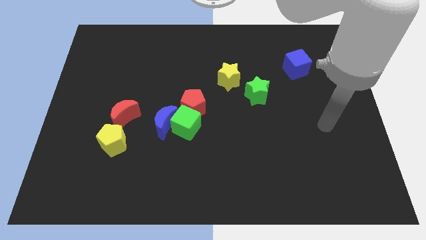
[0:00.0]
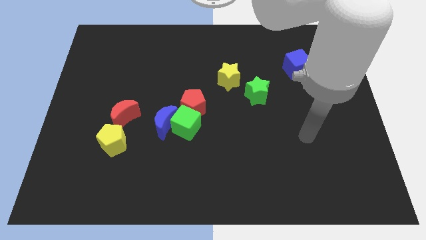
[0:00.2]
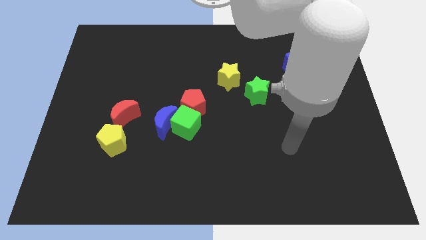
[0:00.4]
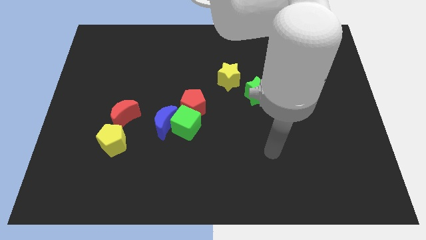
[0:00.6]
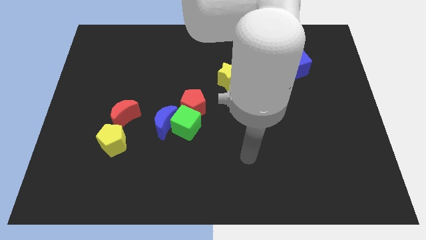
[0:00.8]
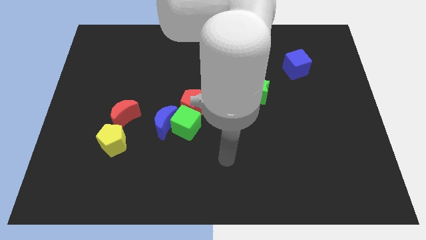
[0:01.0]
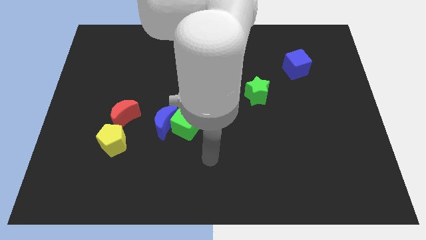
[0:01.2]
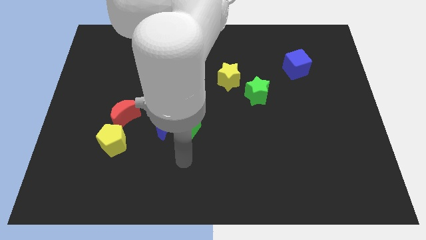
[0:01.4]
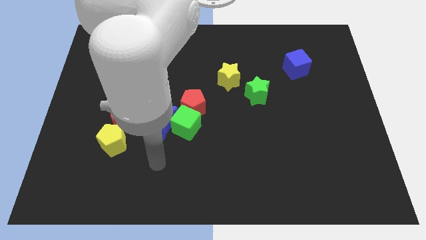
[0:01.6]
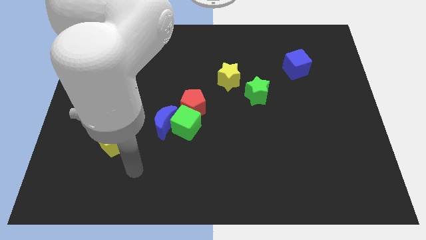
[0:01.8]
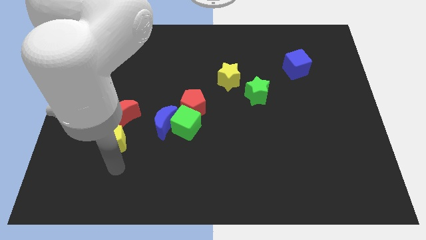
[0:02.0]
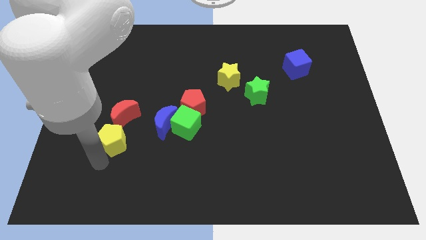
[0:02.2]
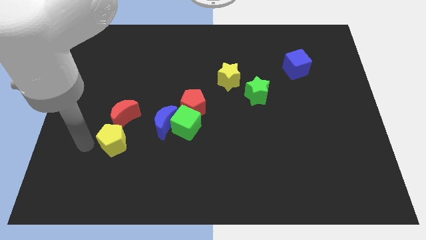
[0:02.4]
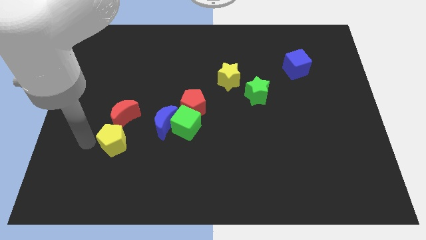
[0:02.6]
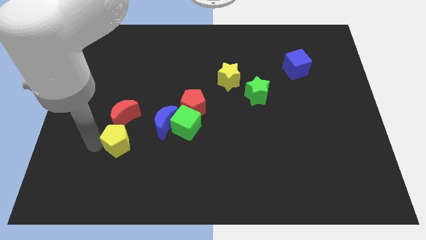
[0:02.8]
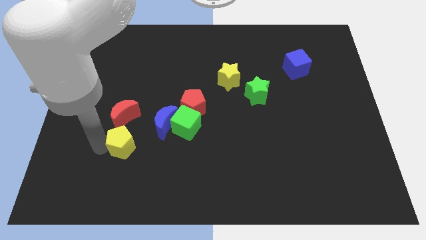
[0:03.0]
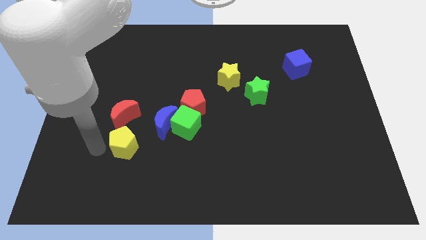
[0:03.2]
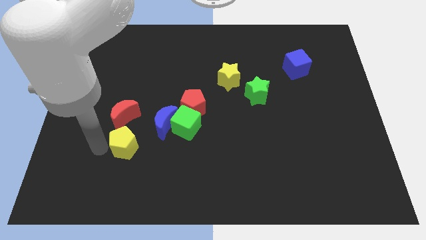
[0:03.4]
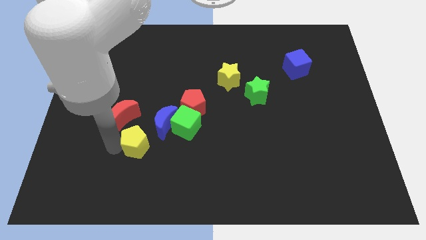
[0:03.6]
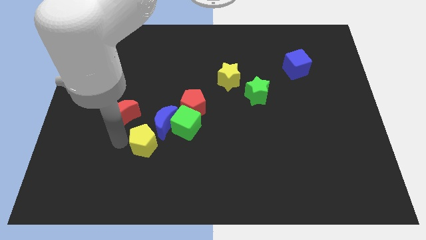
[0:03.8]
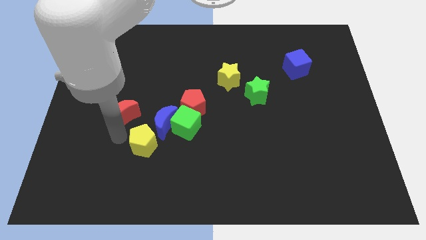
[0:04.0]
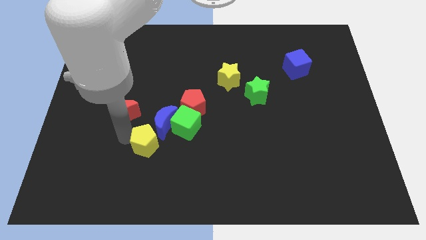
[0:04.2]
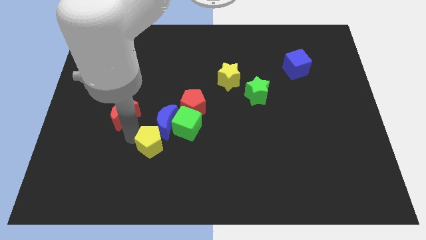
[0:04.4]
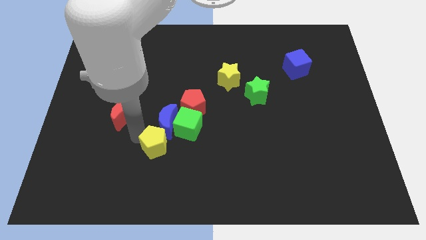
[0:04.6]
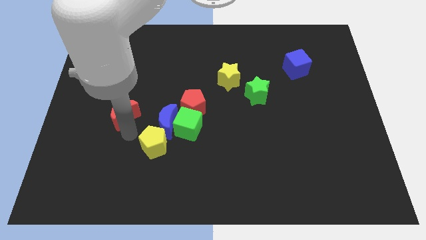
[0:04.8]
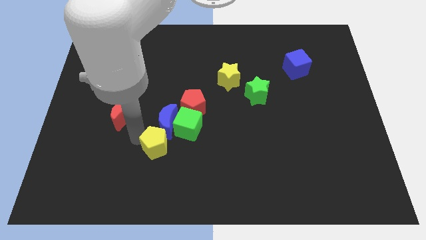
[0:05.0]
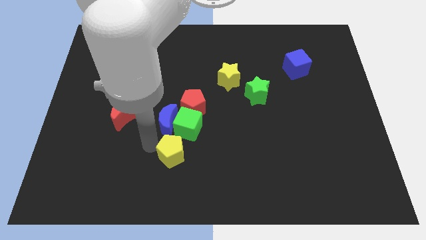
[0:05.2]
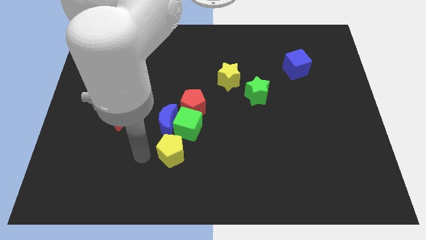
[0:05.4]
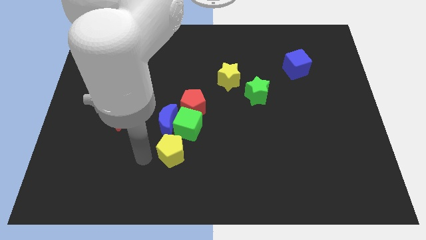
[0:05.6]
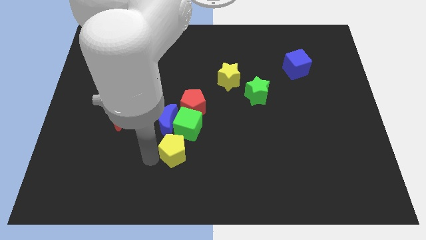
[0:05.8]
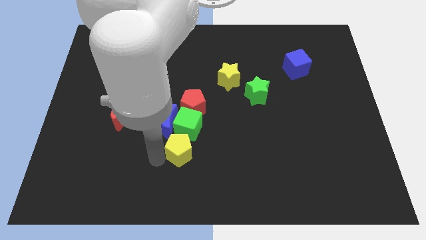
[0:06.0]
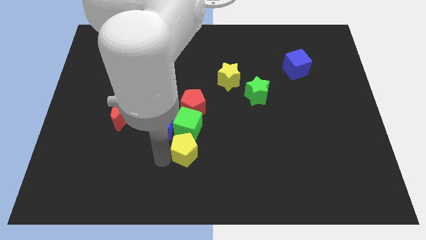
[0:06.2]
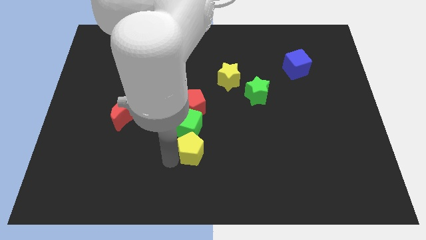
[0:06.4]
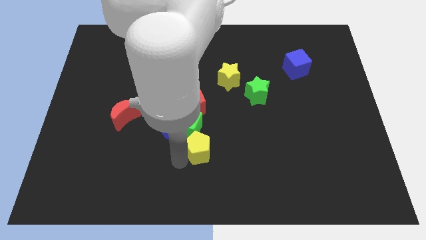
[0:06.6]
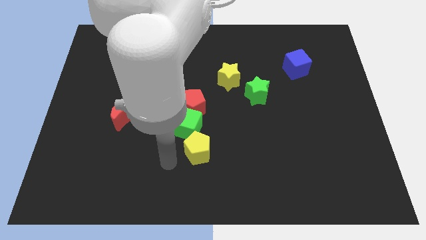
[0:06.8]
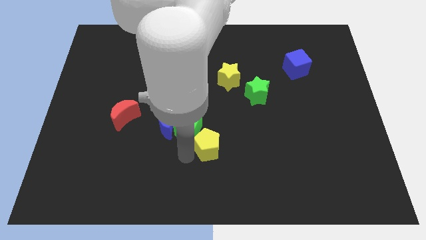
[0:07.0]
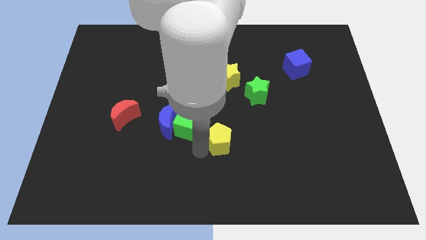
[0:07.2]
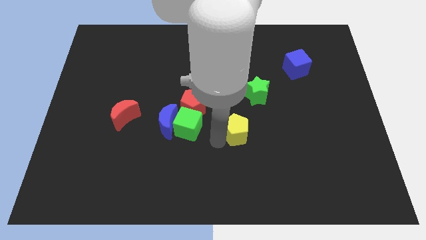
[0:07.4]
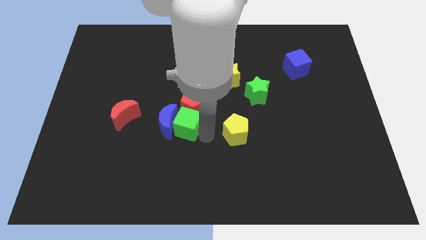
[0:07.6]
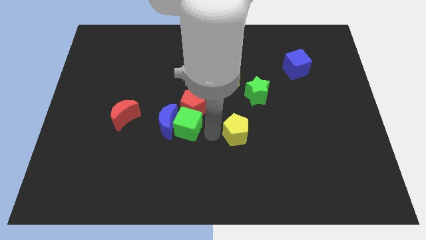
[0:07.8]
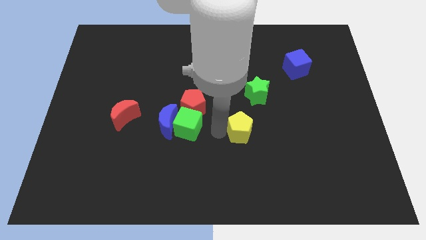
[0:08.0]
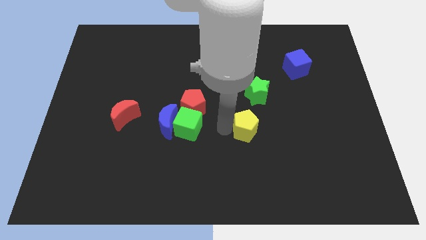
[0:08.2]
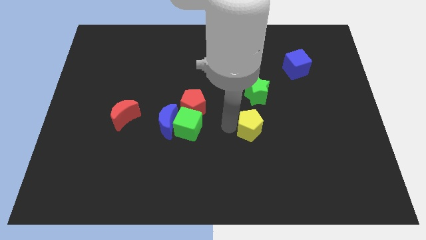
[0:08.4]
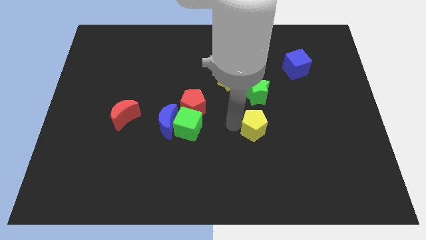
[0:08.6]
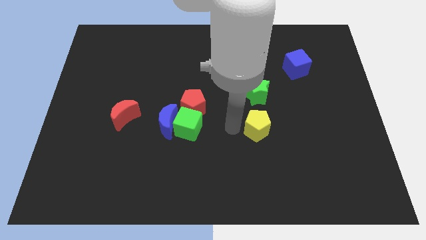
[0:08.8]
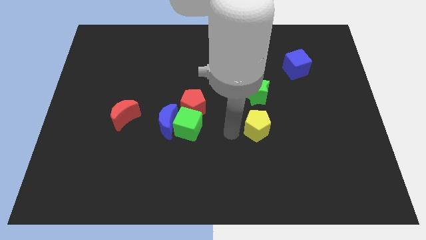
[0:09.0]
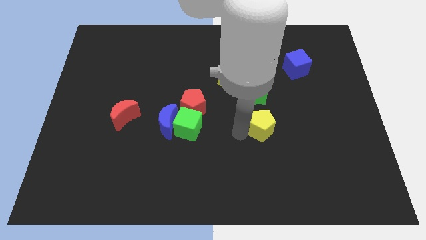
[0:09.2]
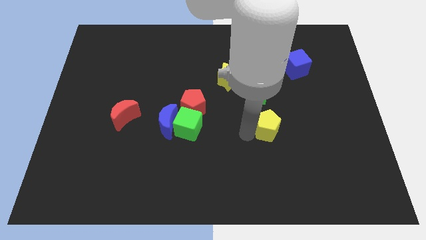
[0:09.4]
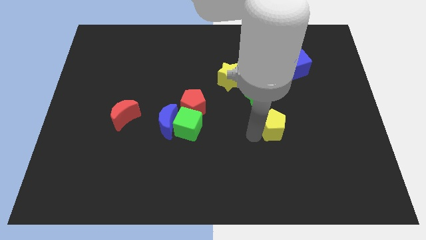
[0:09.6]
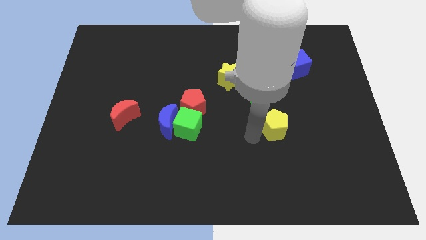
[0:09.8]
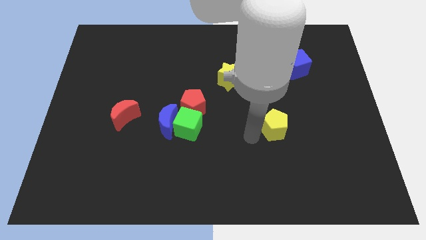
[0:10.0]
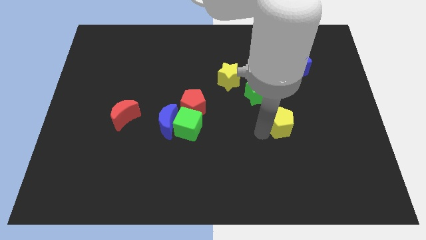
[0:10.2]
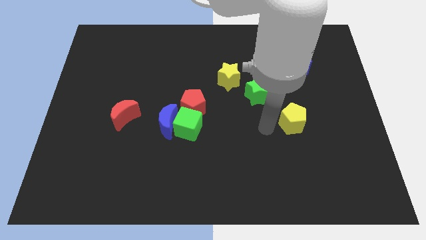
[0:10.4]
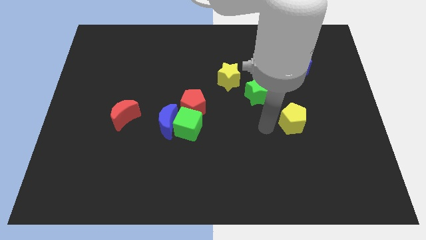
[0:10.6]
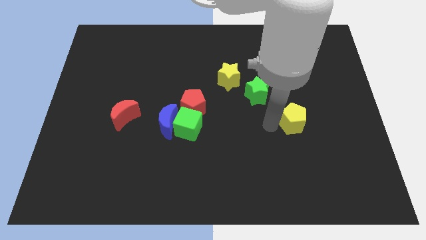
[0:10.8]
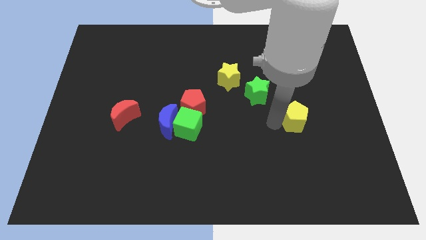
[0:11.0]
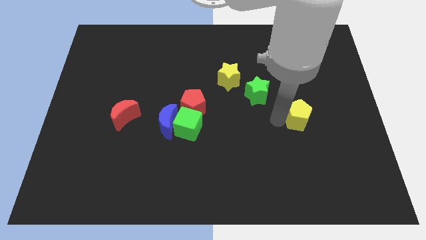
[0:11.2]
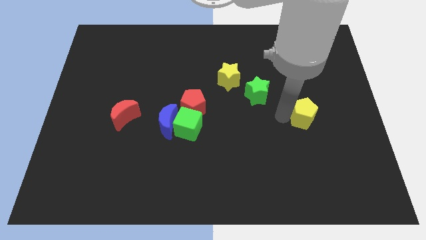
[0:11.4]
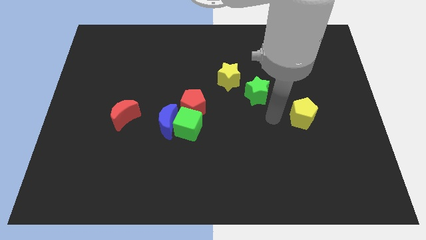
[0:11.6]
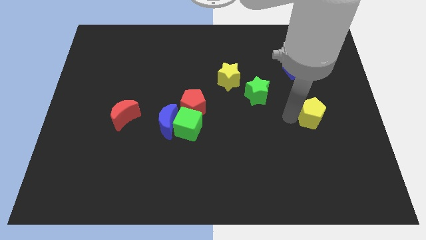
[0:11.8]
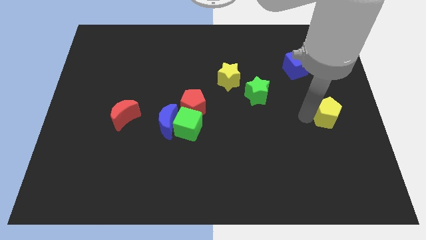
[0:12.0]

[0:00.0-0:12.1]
slide the yellow pentagon to the right side

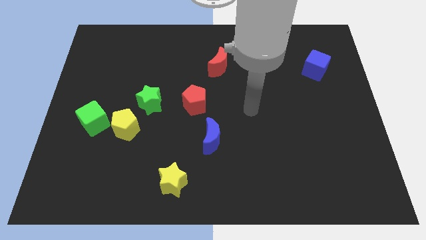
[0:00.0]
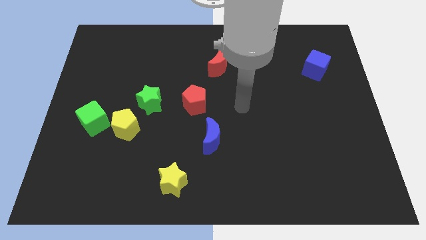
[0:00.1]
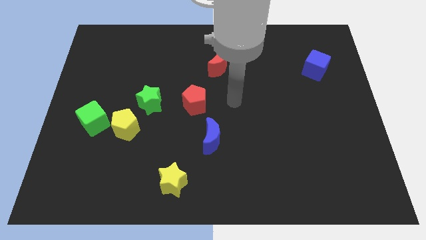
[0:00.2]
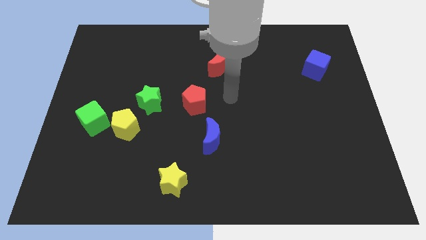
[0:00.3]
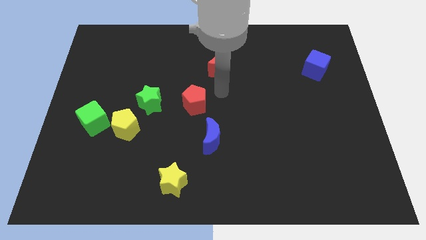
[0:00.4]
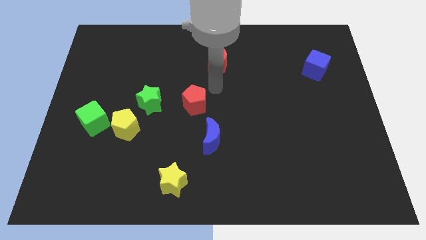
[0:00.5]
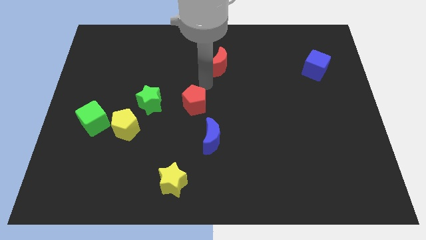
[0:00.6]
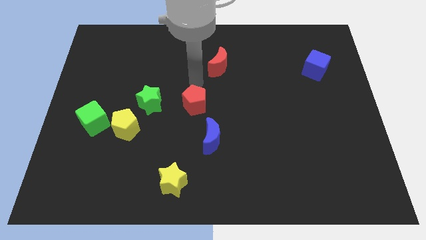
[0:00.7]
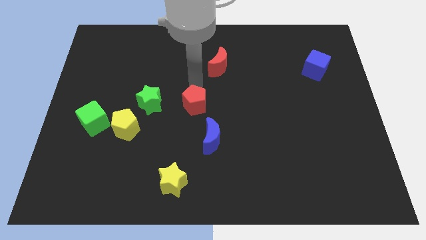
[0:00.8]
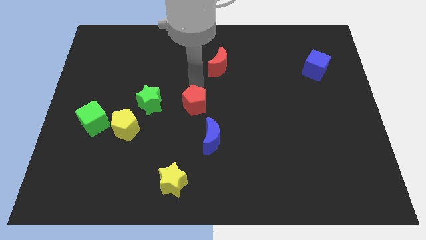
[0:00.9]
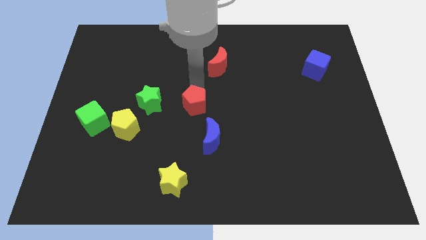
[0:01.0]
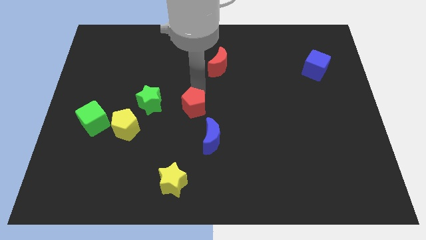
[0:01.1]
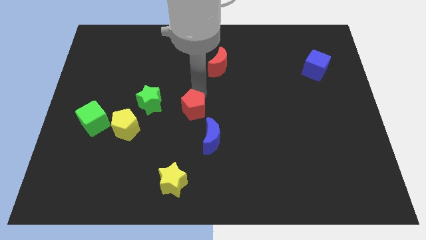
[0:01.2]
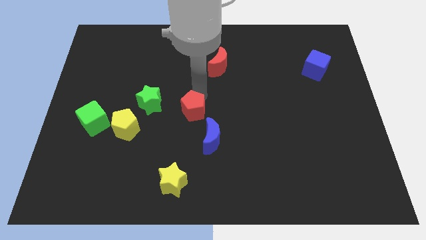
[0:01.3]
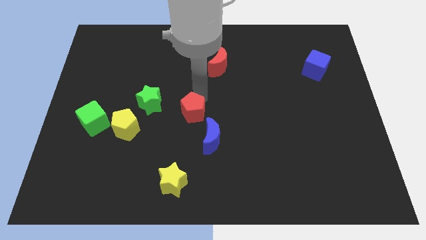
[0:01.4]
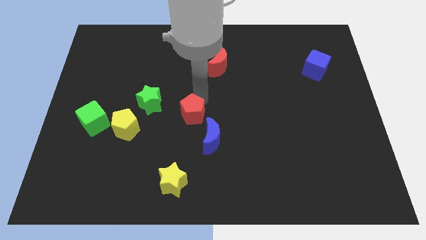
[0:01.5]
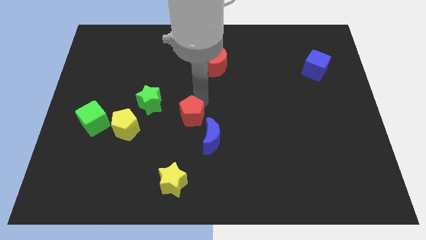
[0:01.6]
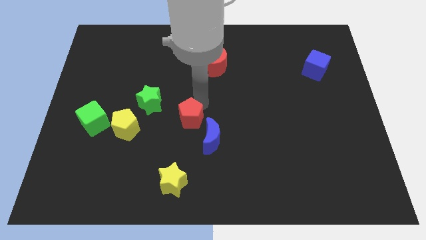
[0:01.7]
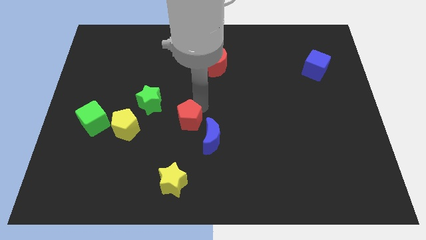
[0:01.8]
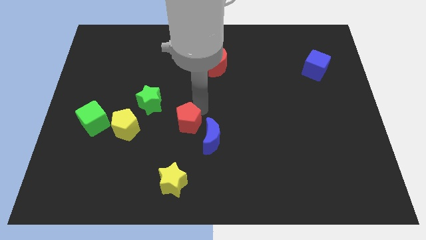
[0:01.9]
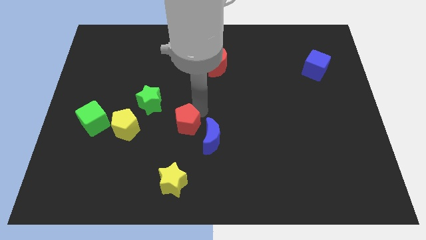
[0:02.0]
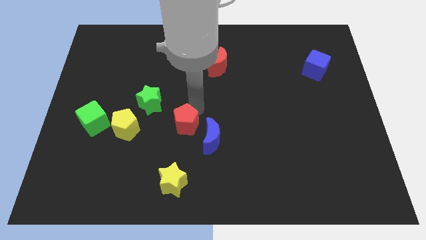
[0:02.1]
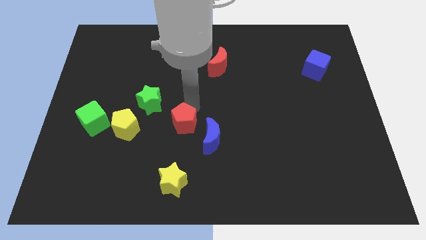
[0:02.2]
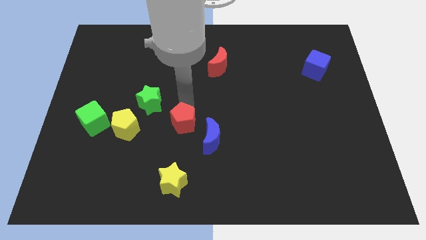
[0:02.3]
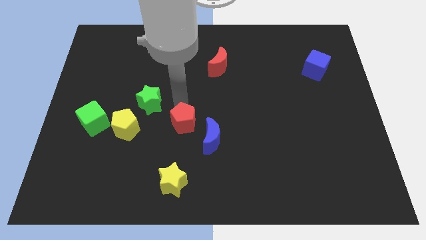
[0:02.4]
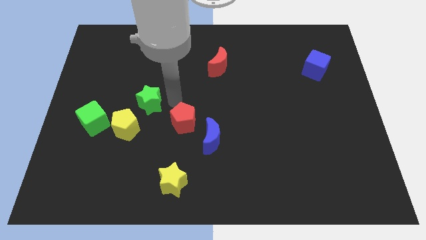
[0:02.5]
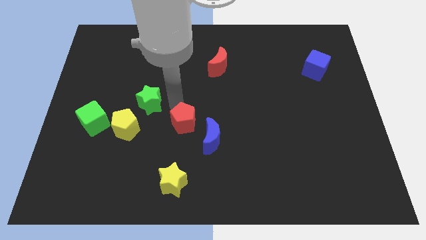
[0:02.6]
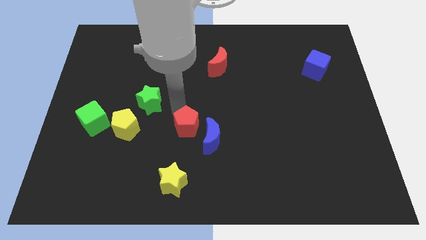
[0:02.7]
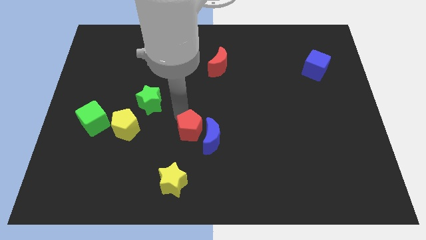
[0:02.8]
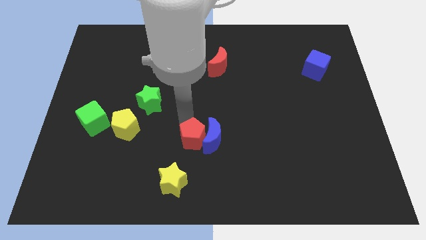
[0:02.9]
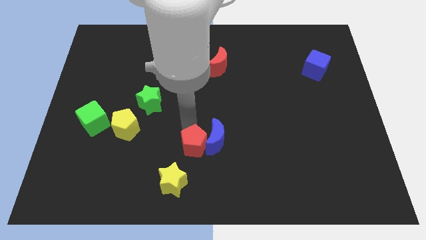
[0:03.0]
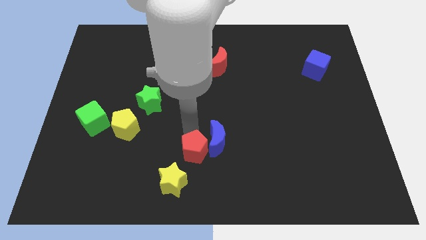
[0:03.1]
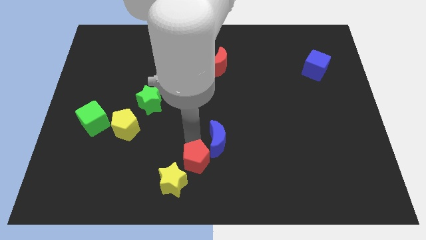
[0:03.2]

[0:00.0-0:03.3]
push the red pentagon to the bottom
